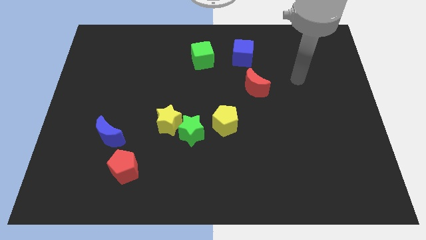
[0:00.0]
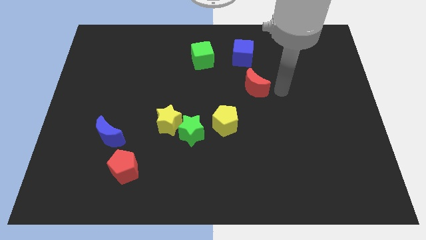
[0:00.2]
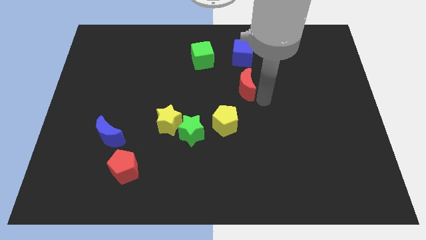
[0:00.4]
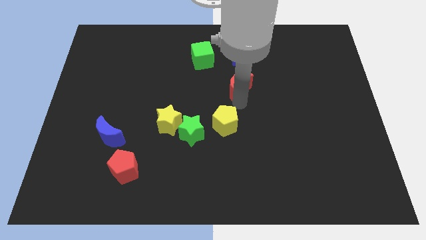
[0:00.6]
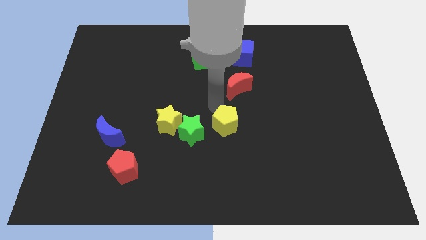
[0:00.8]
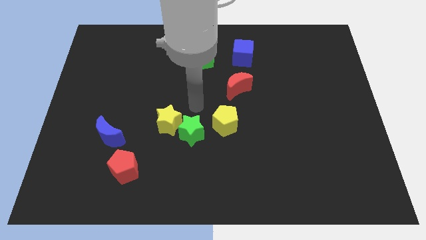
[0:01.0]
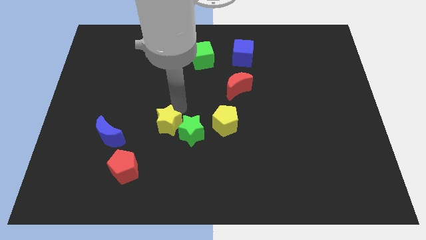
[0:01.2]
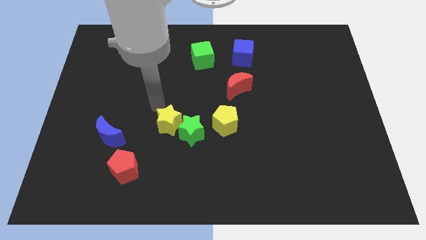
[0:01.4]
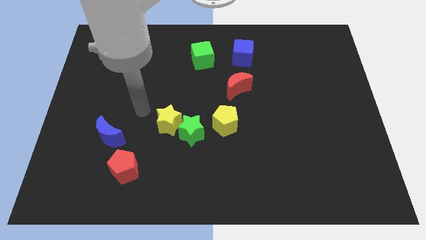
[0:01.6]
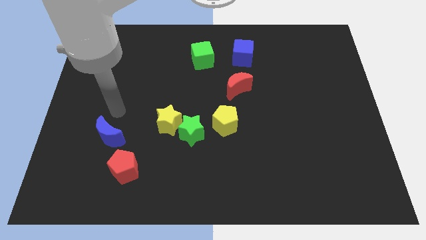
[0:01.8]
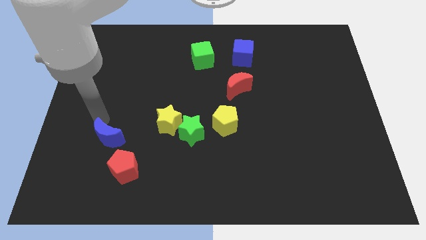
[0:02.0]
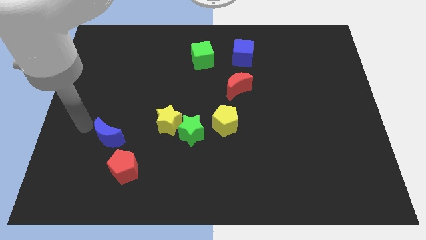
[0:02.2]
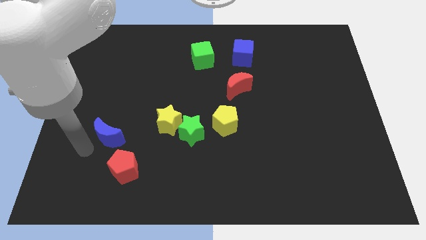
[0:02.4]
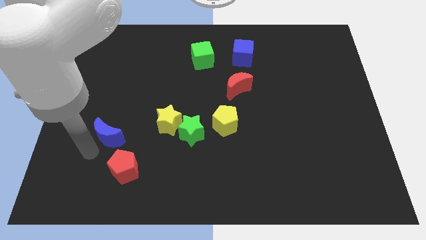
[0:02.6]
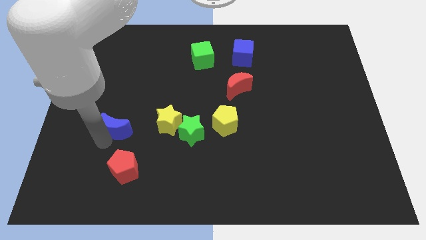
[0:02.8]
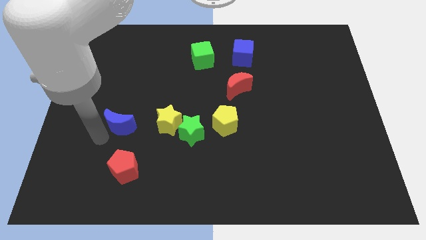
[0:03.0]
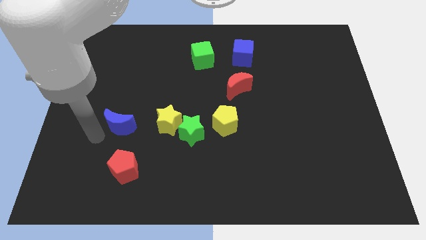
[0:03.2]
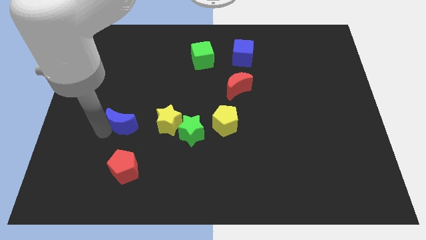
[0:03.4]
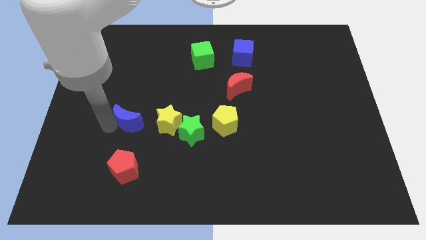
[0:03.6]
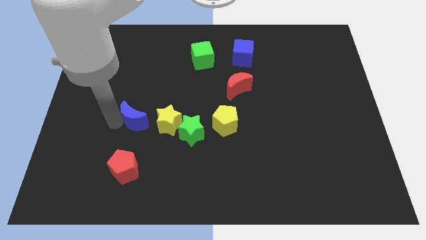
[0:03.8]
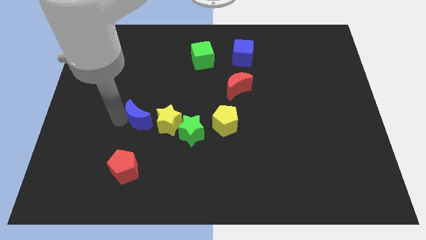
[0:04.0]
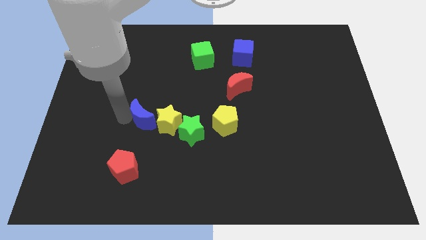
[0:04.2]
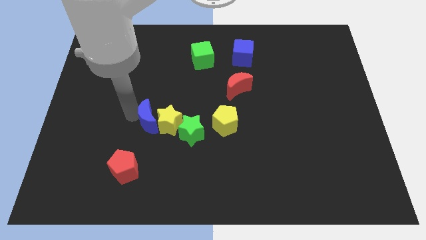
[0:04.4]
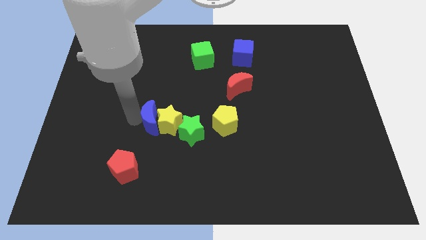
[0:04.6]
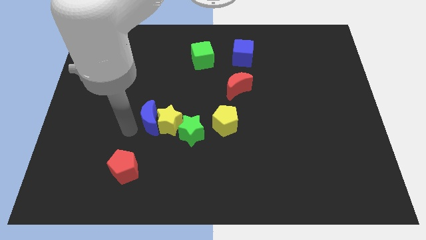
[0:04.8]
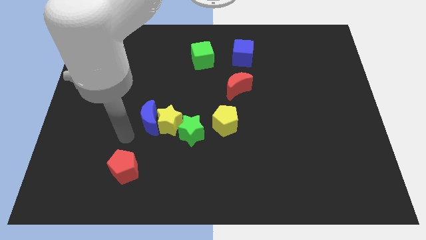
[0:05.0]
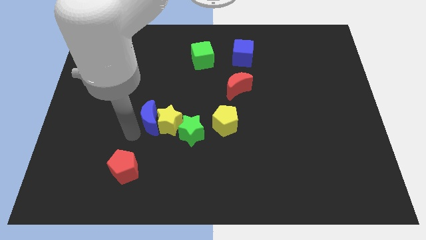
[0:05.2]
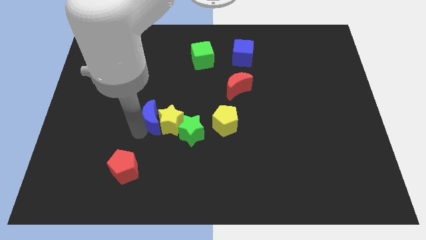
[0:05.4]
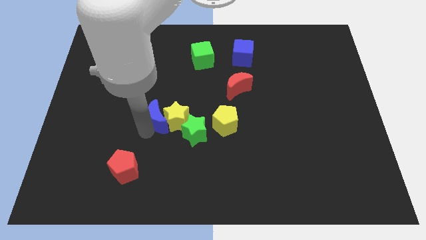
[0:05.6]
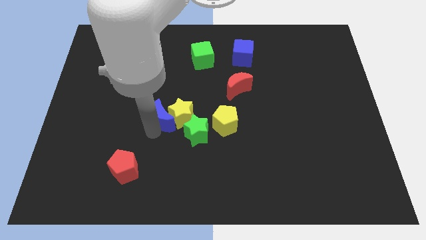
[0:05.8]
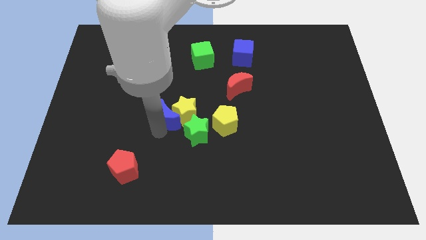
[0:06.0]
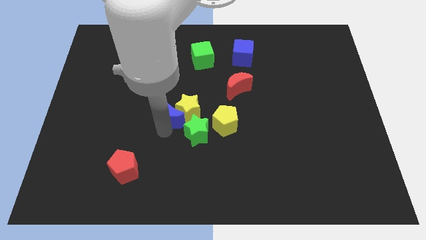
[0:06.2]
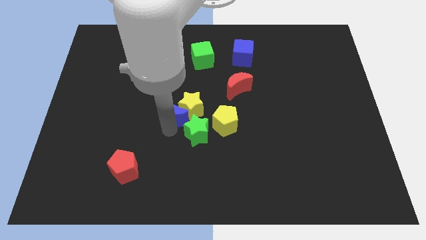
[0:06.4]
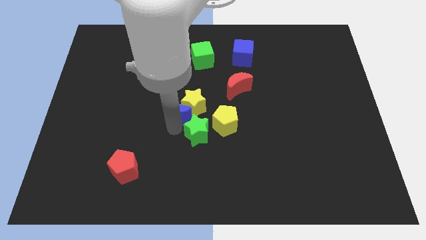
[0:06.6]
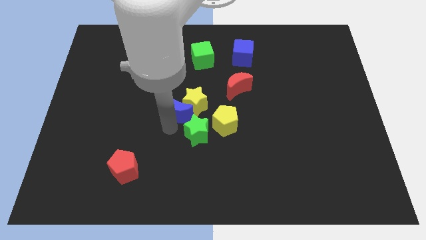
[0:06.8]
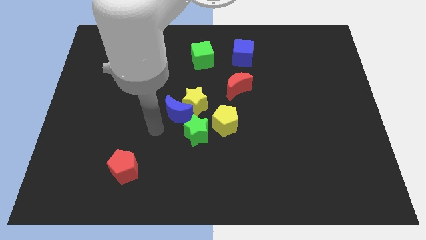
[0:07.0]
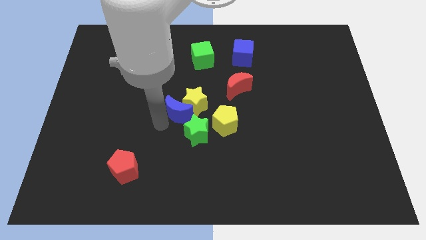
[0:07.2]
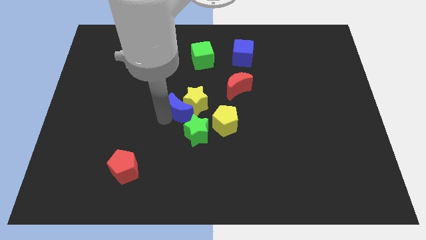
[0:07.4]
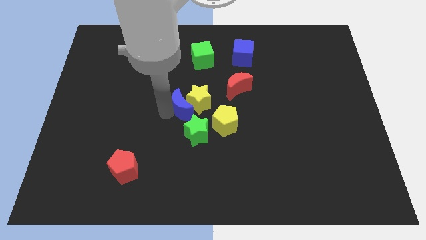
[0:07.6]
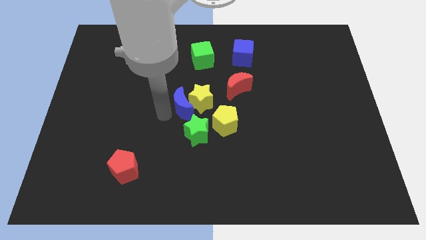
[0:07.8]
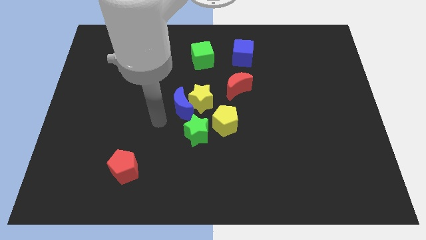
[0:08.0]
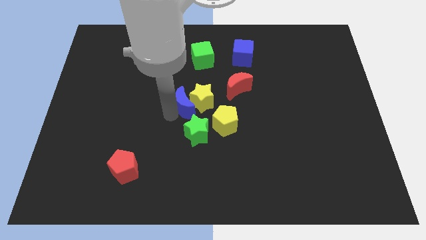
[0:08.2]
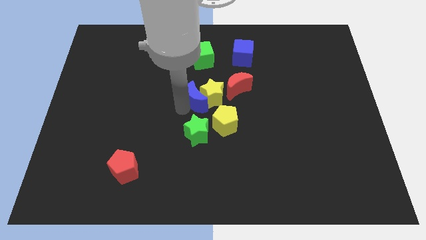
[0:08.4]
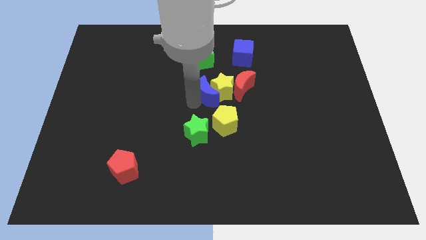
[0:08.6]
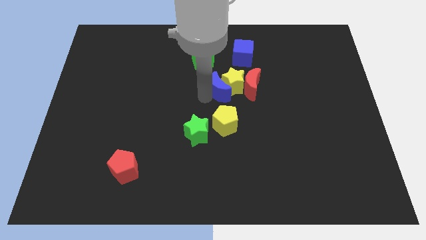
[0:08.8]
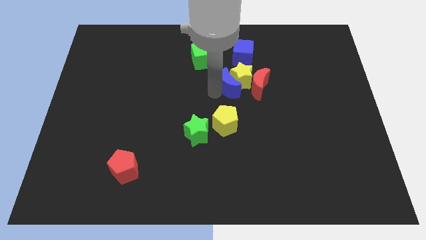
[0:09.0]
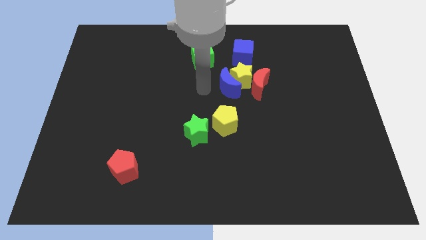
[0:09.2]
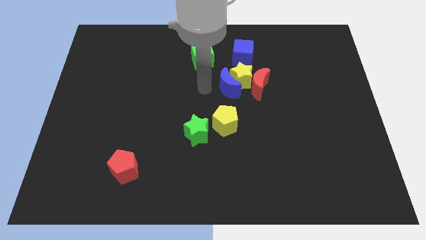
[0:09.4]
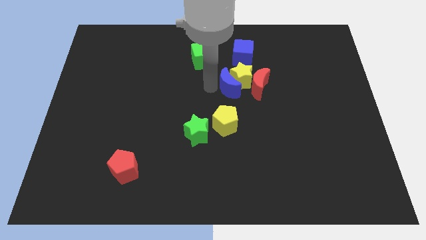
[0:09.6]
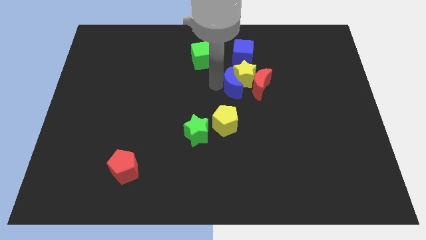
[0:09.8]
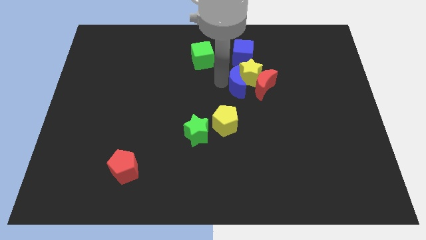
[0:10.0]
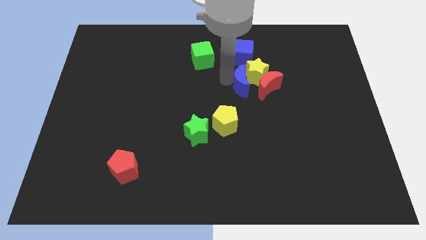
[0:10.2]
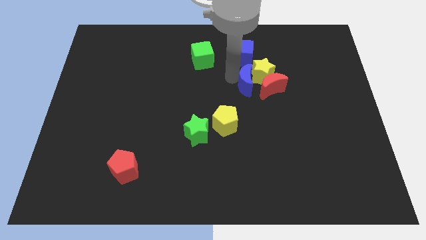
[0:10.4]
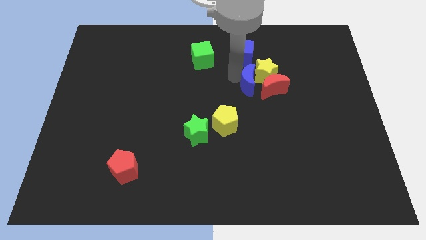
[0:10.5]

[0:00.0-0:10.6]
push the blue moon towards the red moon

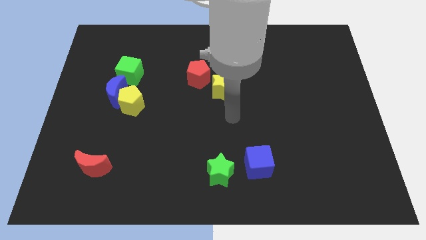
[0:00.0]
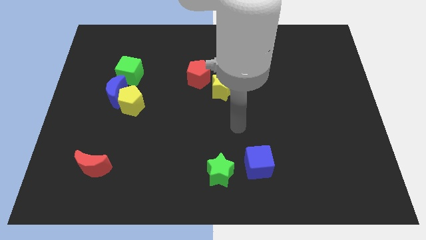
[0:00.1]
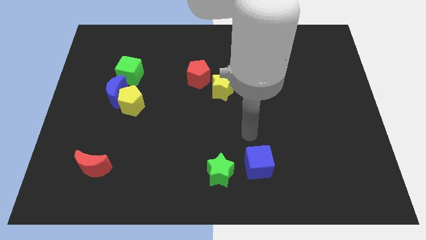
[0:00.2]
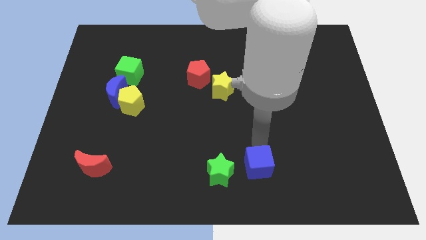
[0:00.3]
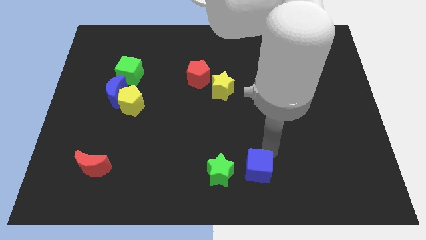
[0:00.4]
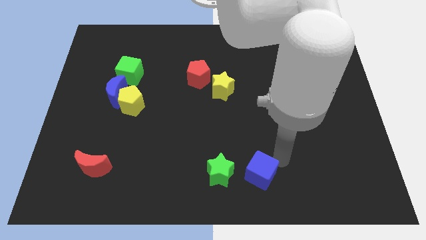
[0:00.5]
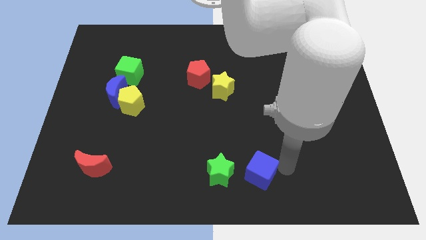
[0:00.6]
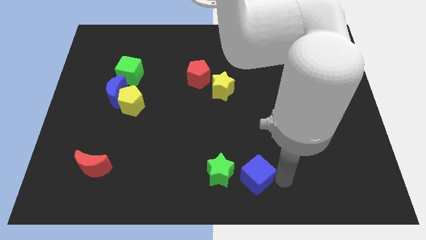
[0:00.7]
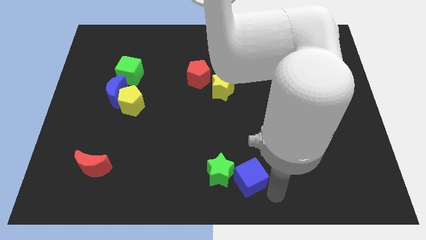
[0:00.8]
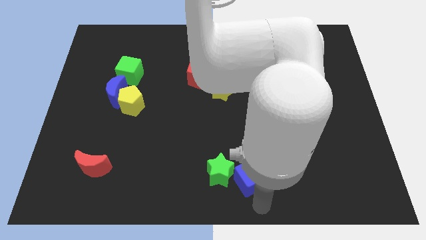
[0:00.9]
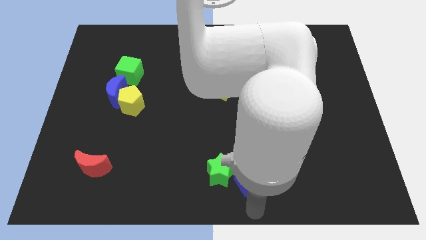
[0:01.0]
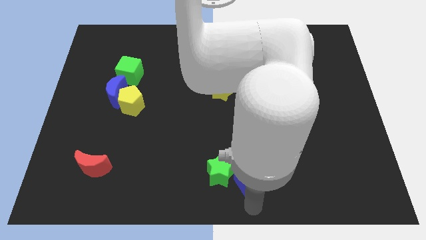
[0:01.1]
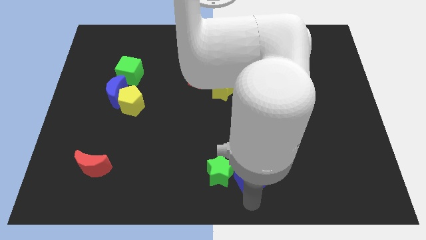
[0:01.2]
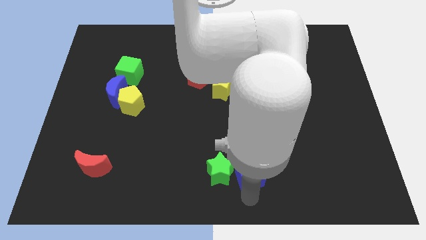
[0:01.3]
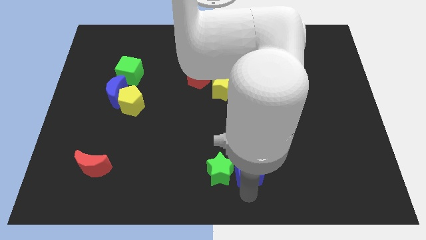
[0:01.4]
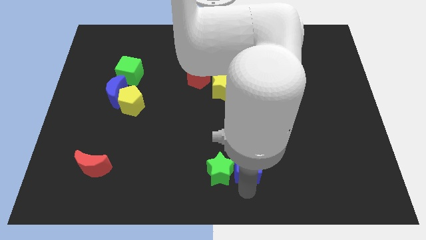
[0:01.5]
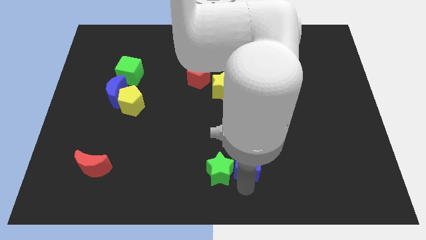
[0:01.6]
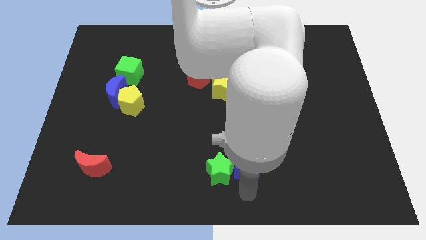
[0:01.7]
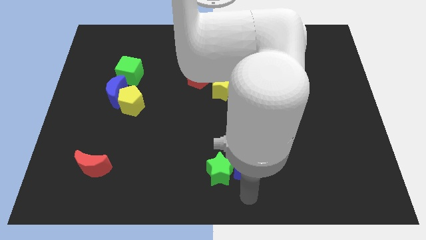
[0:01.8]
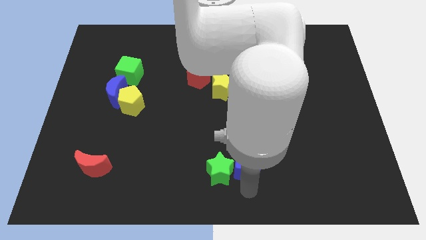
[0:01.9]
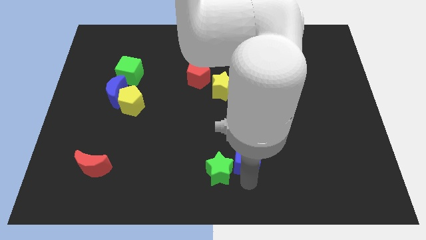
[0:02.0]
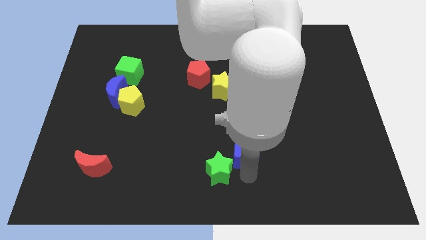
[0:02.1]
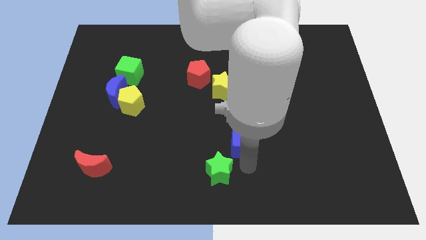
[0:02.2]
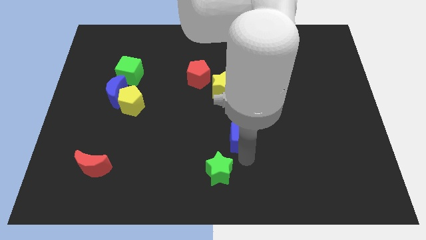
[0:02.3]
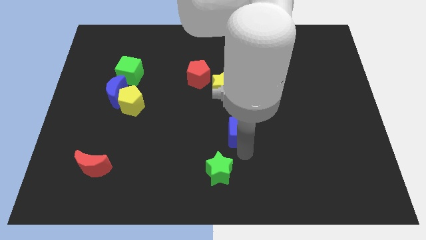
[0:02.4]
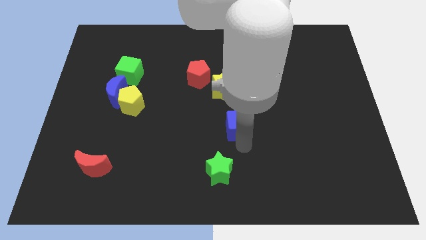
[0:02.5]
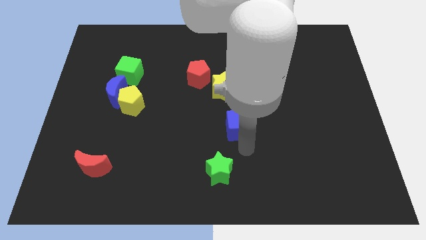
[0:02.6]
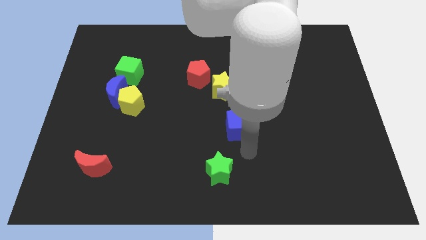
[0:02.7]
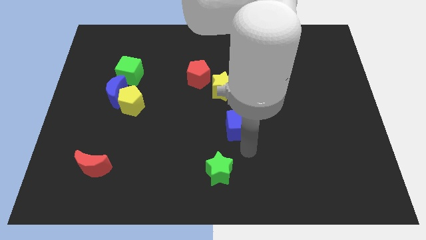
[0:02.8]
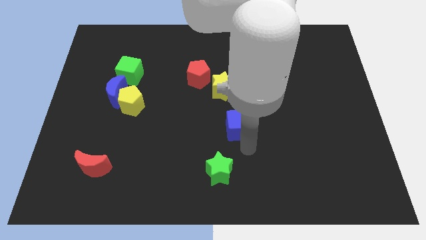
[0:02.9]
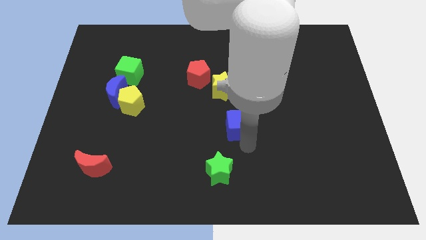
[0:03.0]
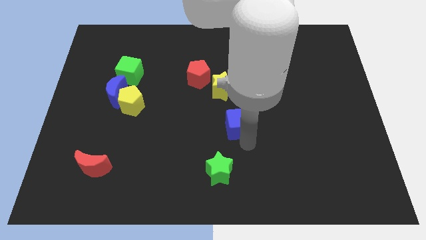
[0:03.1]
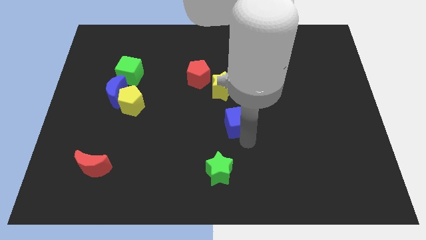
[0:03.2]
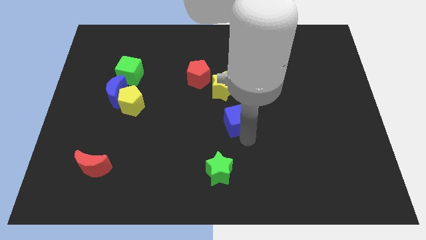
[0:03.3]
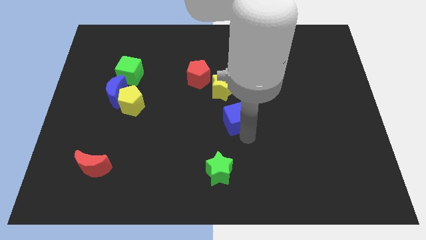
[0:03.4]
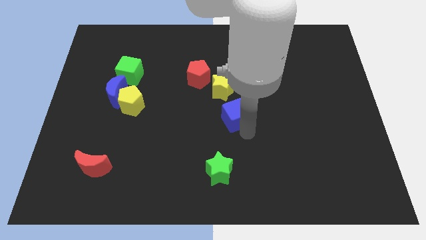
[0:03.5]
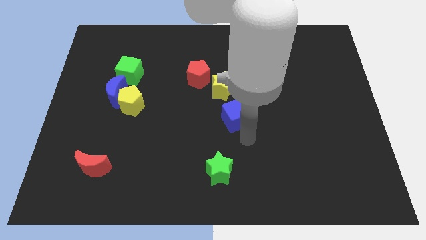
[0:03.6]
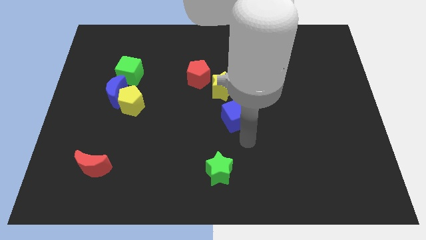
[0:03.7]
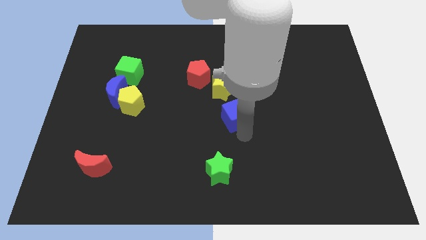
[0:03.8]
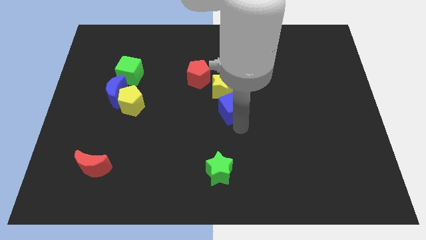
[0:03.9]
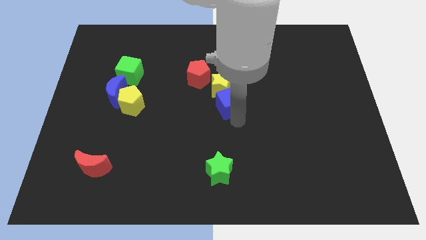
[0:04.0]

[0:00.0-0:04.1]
move the blue cube to the yellow star
